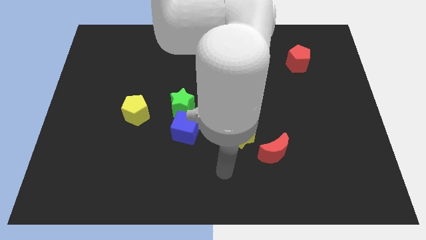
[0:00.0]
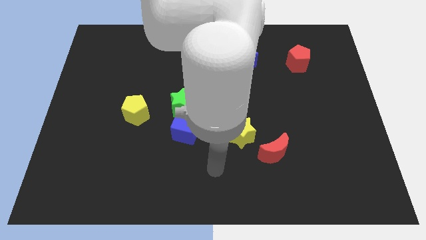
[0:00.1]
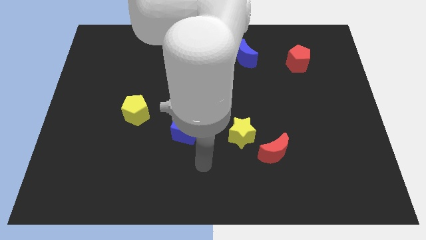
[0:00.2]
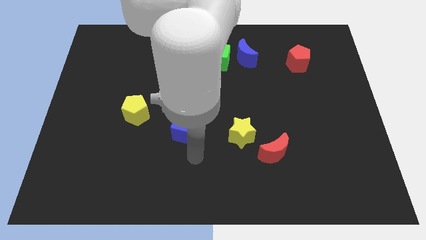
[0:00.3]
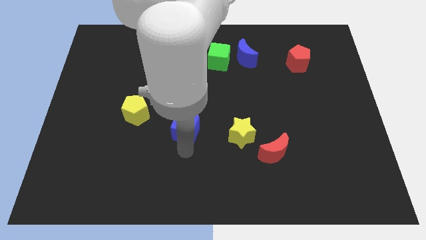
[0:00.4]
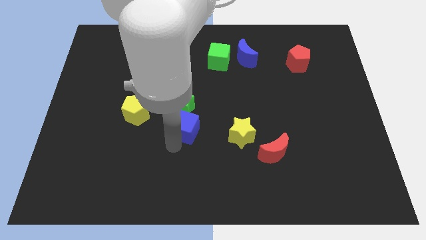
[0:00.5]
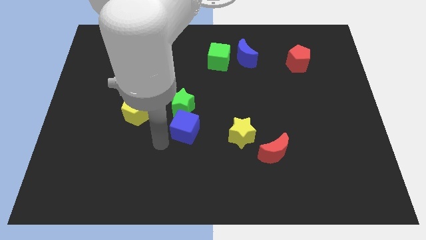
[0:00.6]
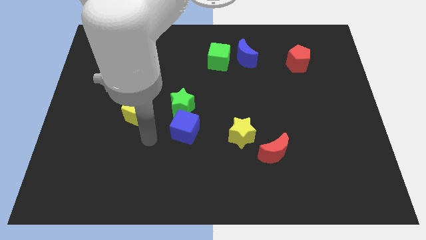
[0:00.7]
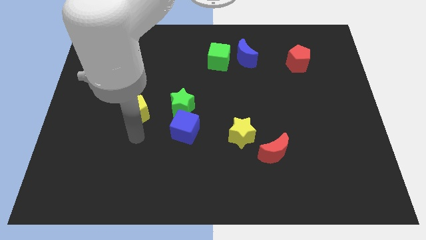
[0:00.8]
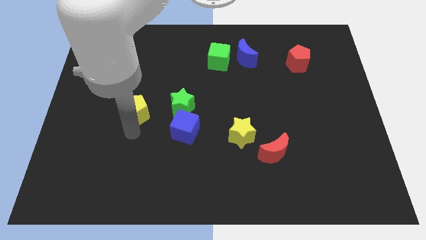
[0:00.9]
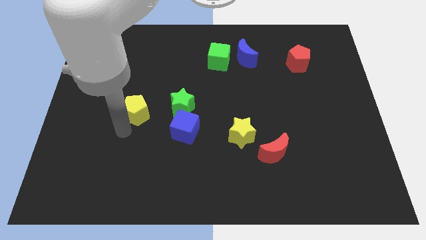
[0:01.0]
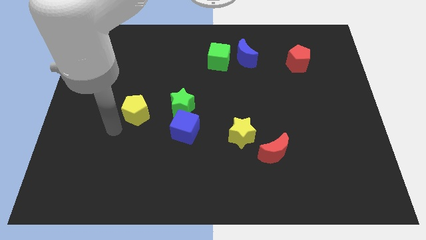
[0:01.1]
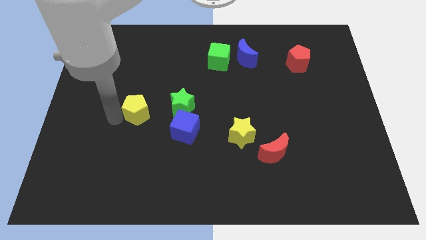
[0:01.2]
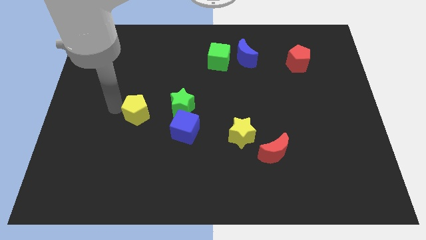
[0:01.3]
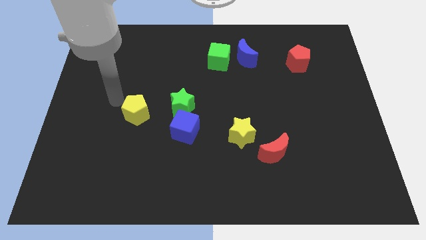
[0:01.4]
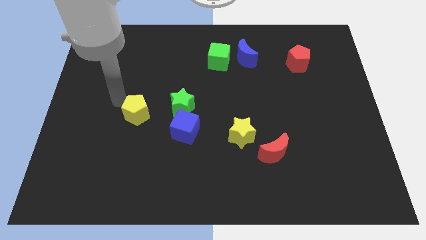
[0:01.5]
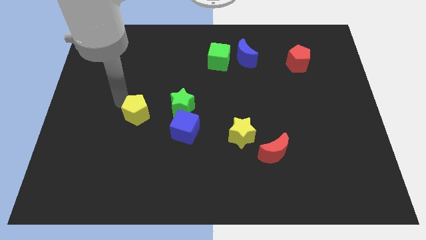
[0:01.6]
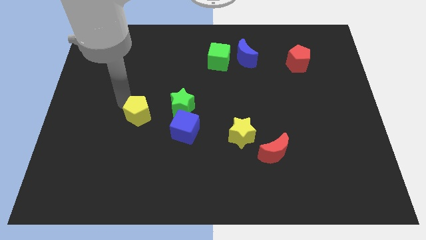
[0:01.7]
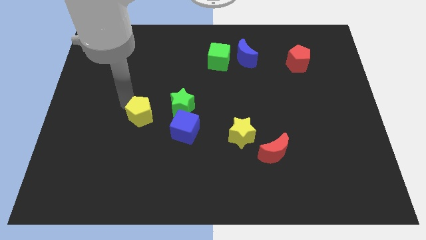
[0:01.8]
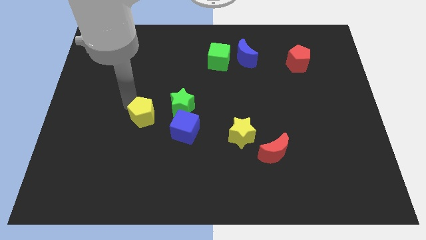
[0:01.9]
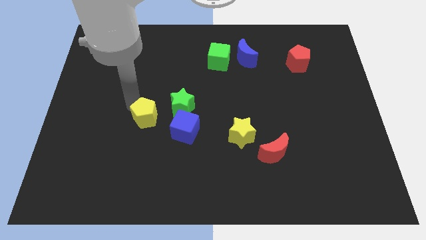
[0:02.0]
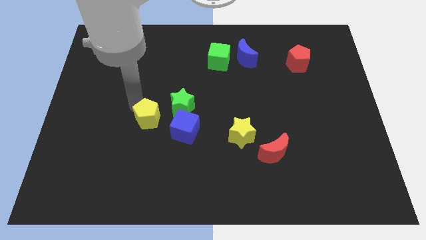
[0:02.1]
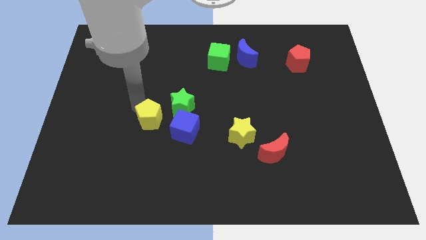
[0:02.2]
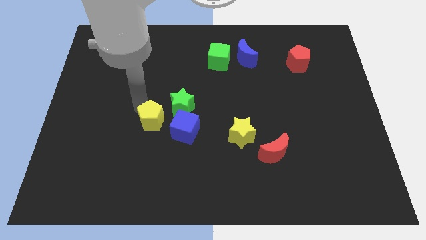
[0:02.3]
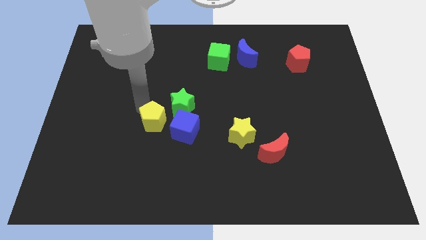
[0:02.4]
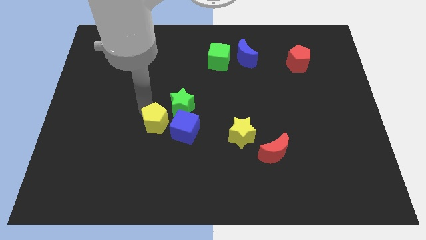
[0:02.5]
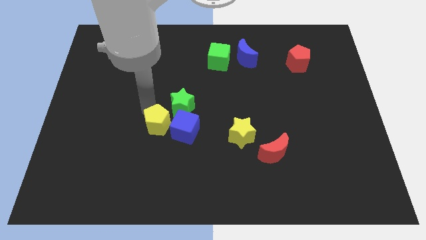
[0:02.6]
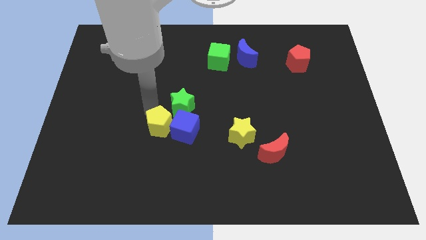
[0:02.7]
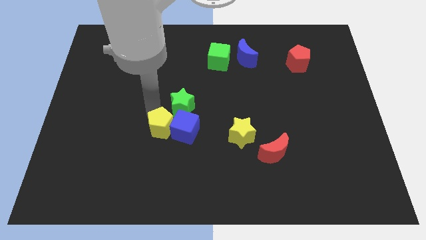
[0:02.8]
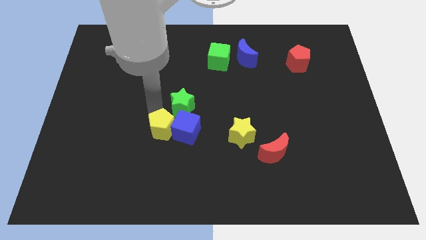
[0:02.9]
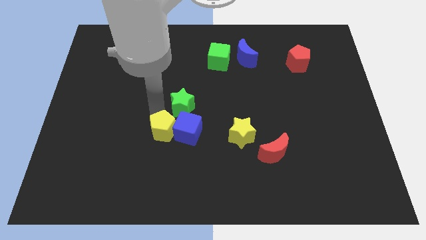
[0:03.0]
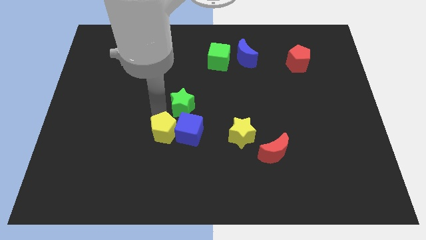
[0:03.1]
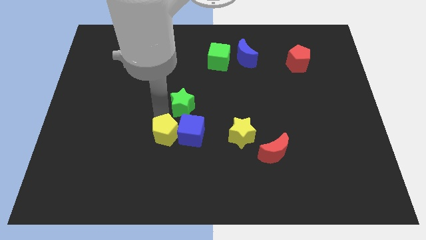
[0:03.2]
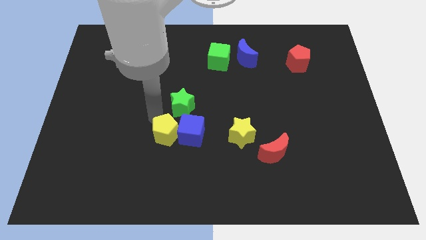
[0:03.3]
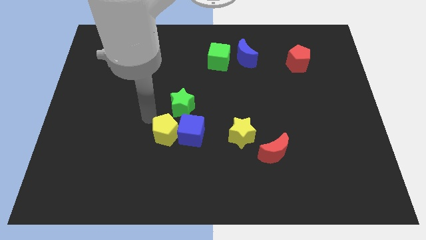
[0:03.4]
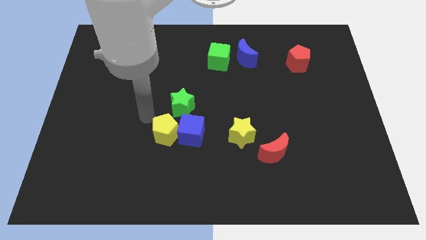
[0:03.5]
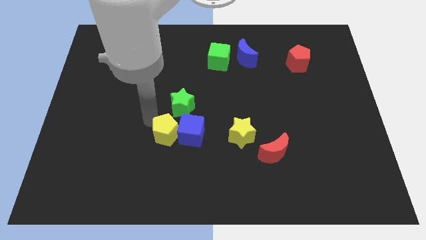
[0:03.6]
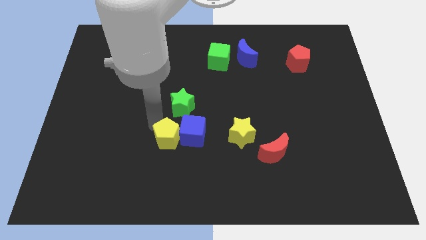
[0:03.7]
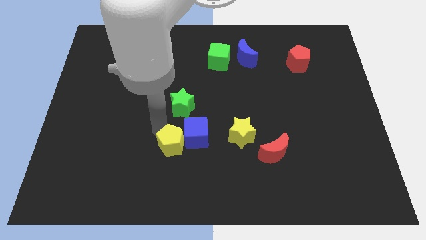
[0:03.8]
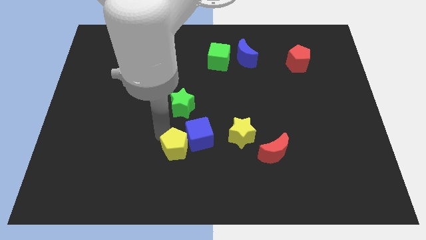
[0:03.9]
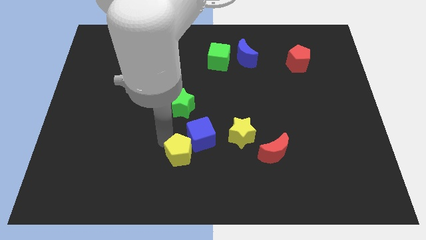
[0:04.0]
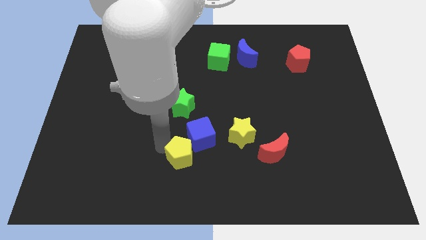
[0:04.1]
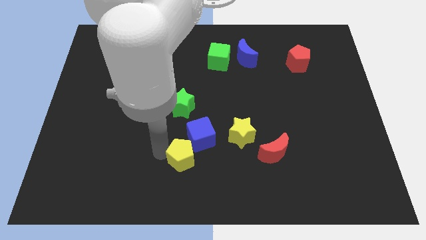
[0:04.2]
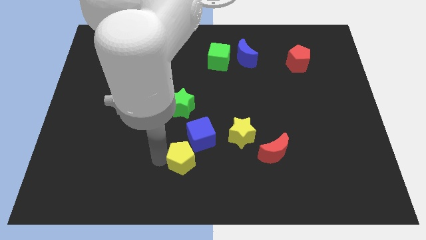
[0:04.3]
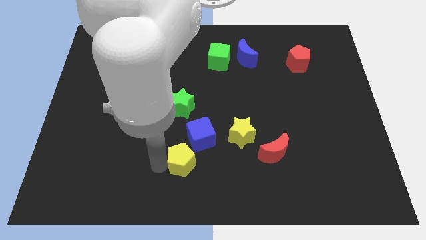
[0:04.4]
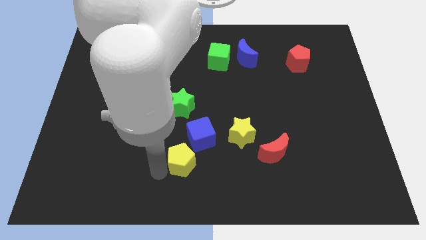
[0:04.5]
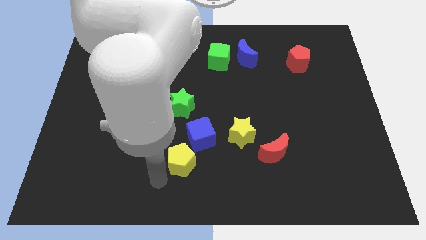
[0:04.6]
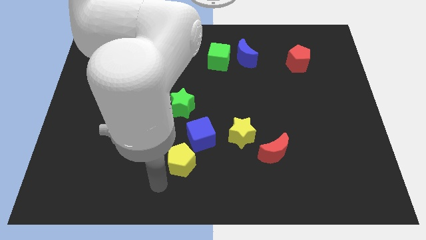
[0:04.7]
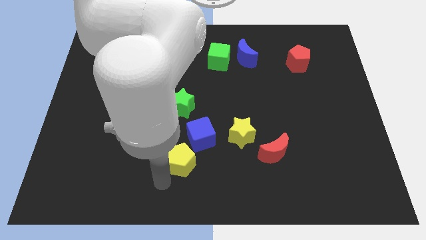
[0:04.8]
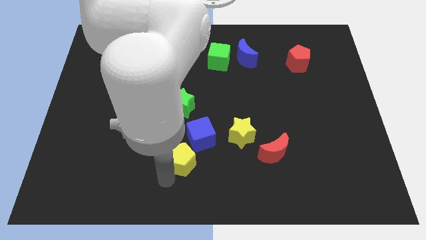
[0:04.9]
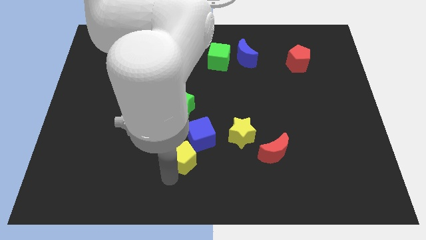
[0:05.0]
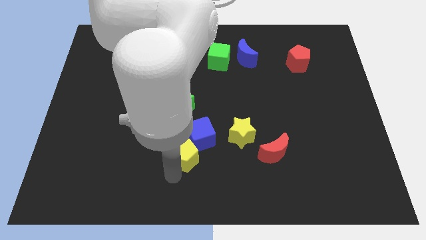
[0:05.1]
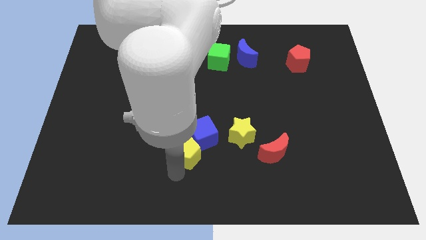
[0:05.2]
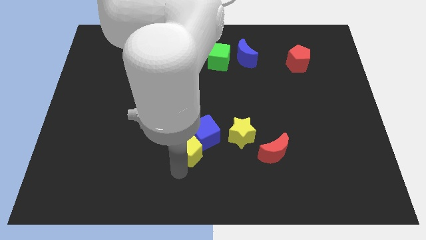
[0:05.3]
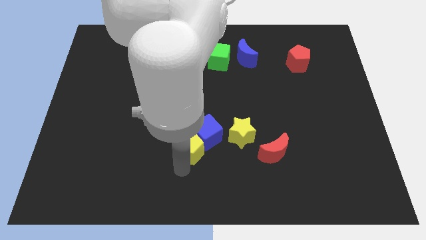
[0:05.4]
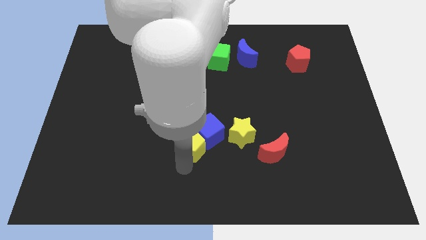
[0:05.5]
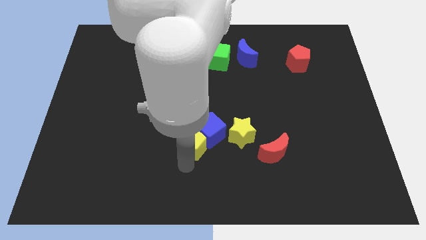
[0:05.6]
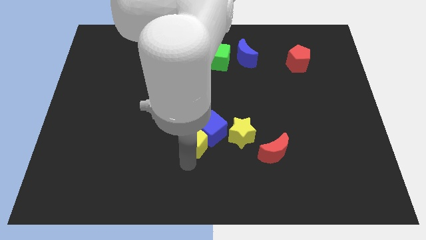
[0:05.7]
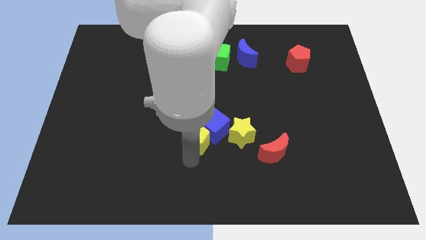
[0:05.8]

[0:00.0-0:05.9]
slide the yellow pentagon to the center

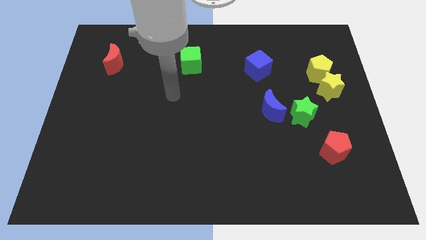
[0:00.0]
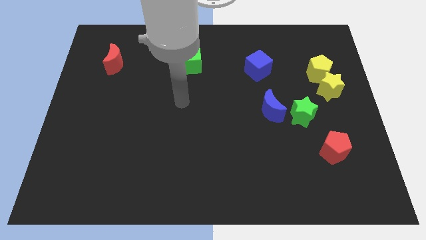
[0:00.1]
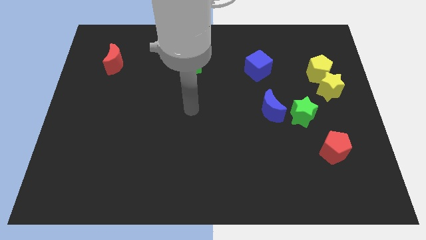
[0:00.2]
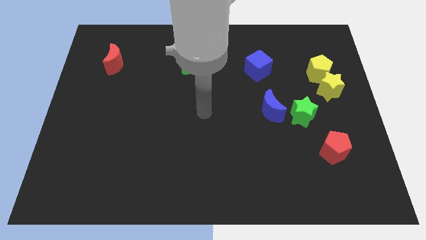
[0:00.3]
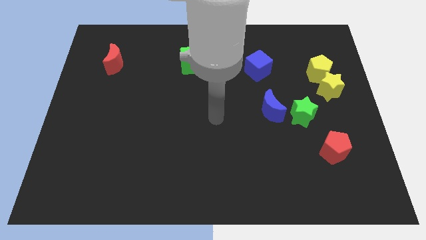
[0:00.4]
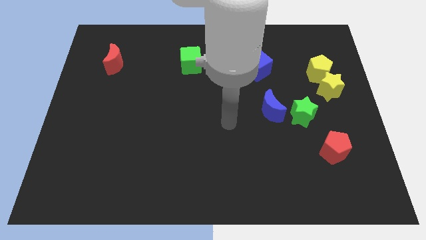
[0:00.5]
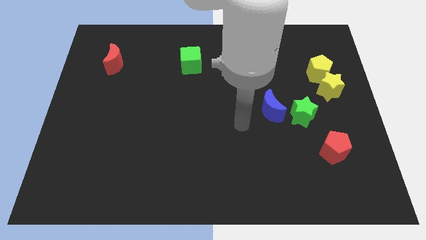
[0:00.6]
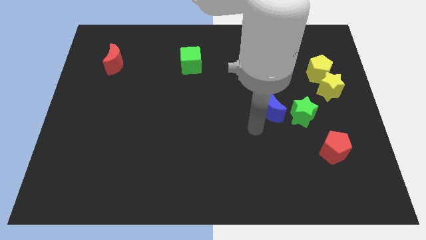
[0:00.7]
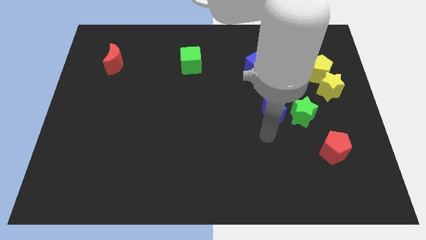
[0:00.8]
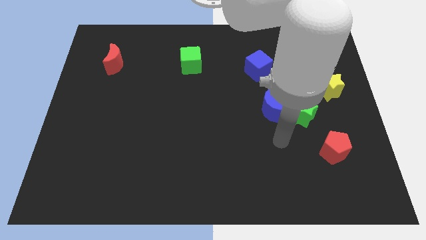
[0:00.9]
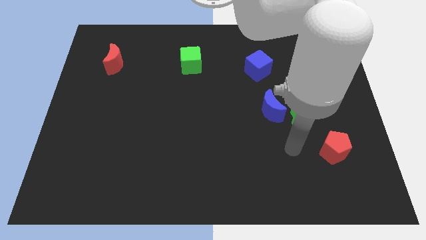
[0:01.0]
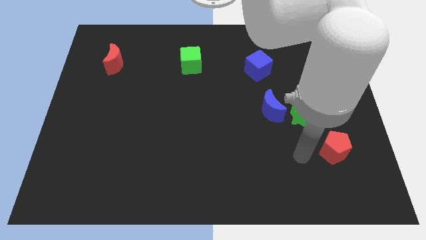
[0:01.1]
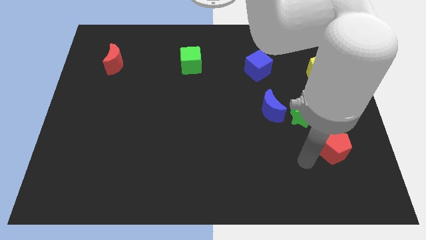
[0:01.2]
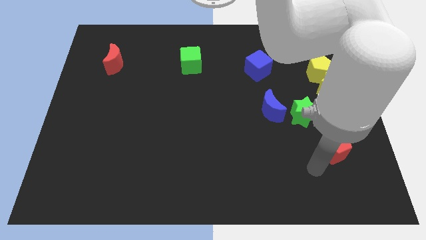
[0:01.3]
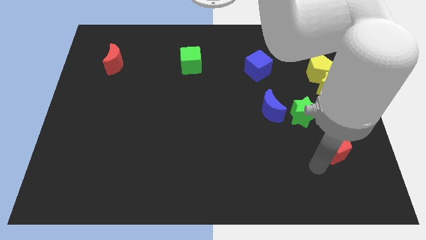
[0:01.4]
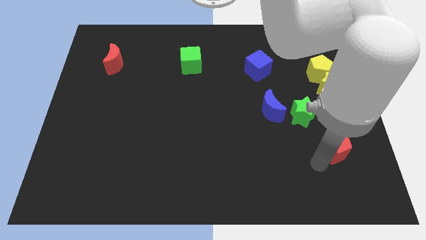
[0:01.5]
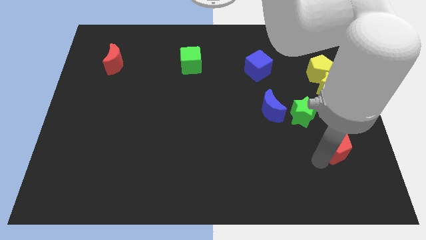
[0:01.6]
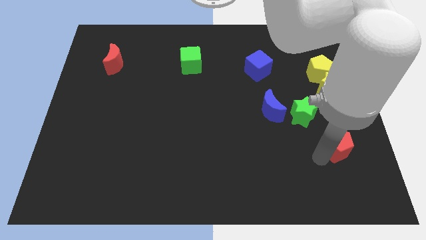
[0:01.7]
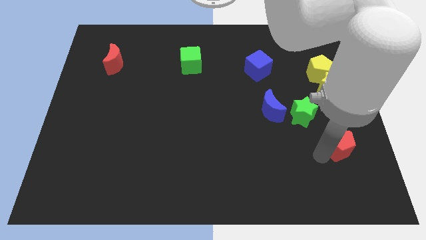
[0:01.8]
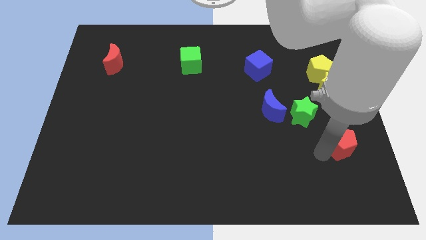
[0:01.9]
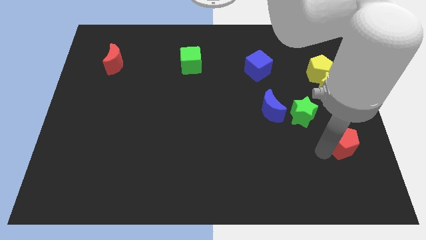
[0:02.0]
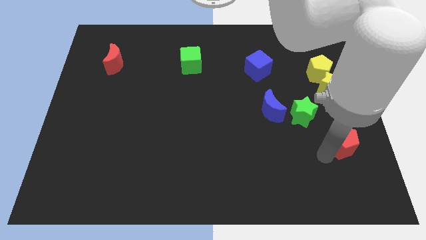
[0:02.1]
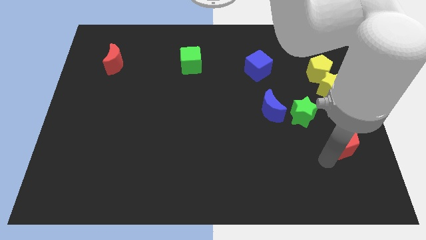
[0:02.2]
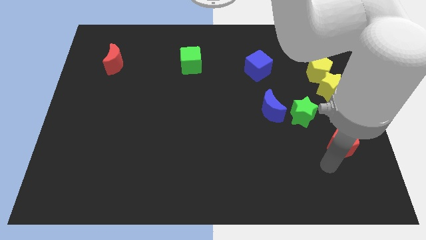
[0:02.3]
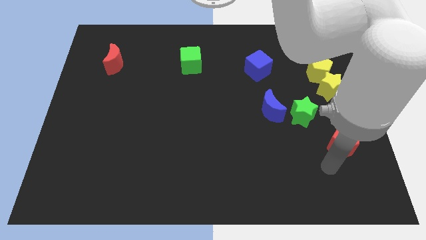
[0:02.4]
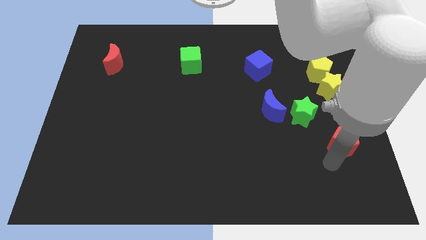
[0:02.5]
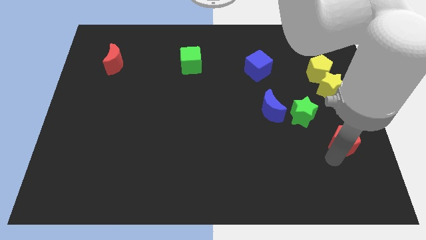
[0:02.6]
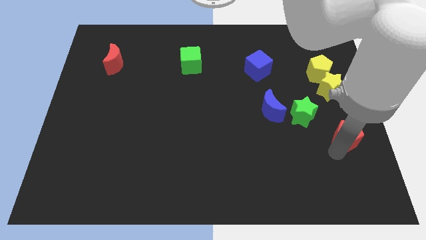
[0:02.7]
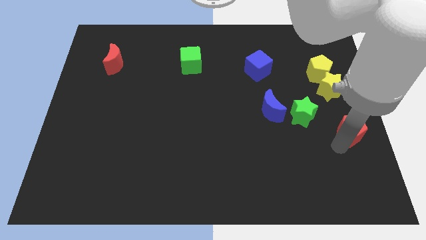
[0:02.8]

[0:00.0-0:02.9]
move the red pentagon to the center right
